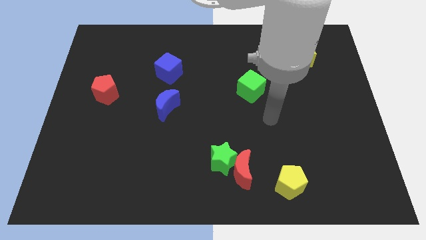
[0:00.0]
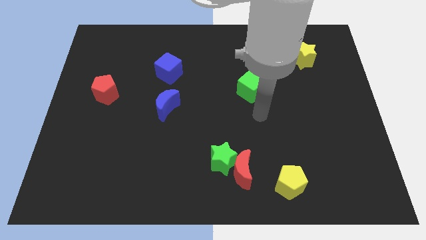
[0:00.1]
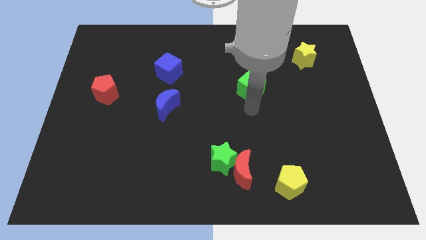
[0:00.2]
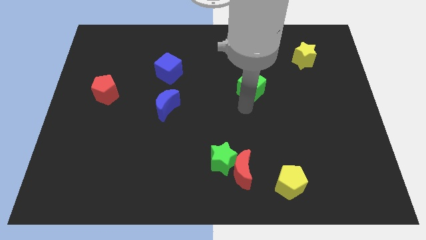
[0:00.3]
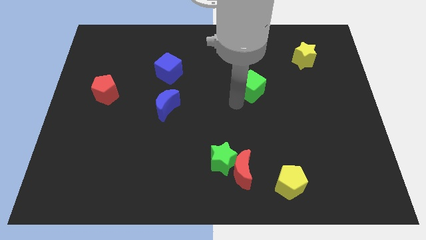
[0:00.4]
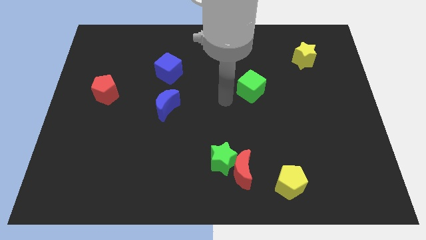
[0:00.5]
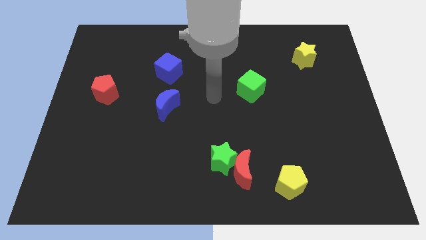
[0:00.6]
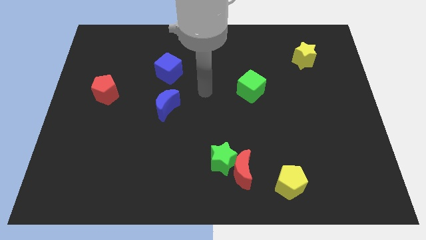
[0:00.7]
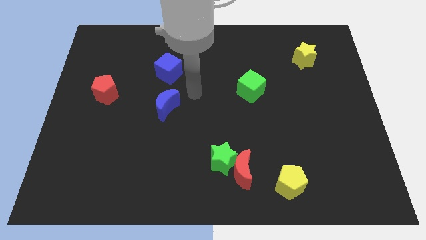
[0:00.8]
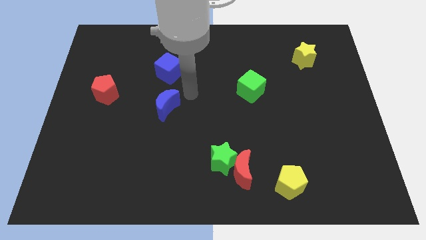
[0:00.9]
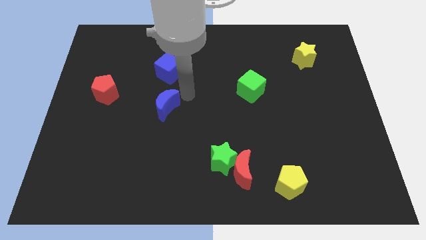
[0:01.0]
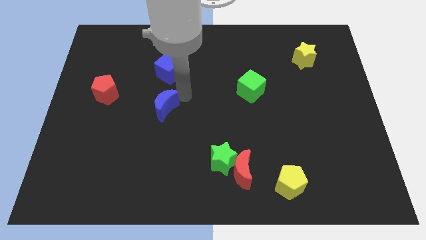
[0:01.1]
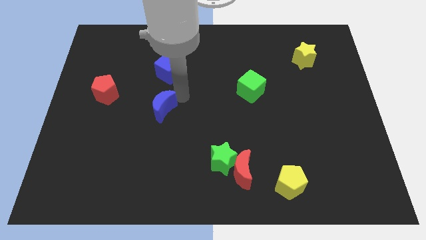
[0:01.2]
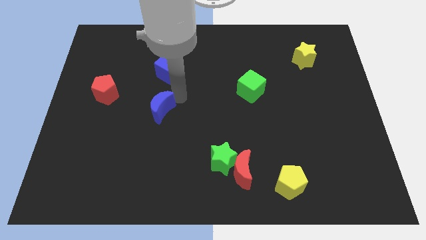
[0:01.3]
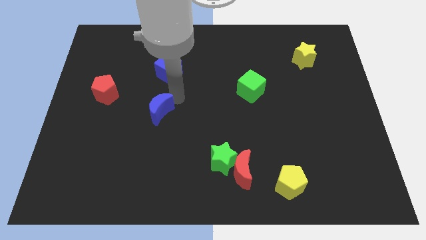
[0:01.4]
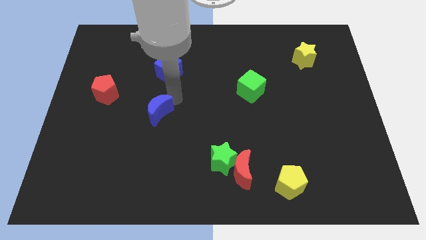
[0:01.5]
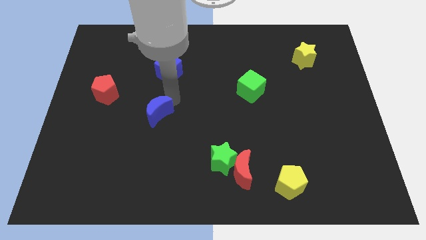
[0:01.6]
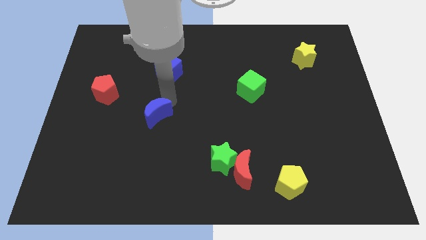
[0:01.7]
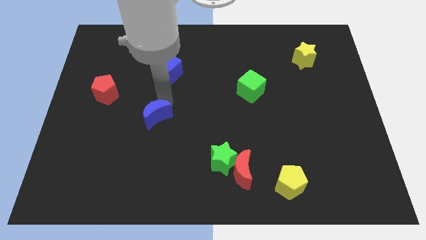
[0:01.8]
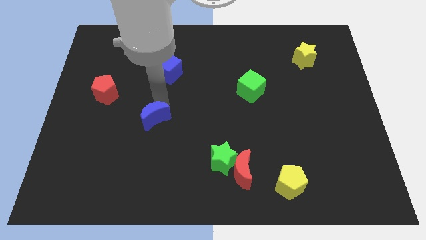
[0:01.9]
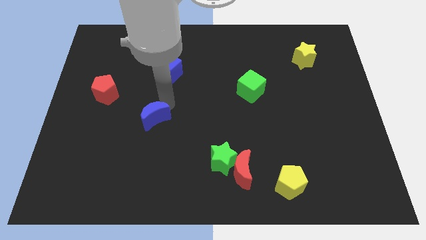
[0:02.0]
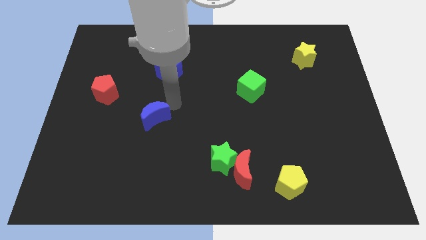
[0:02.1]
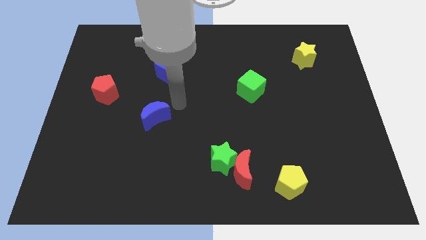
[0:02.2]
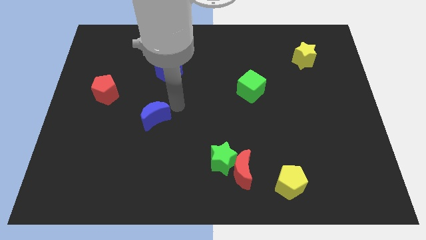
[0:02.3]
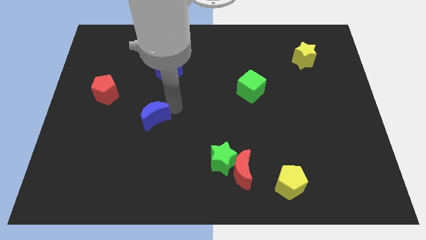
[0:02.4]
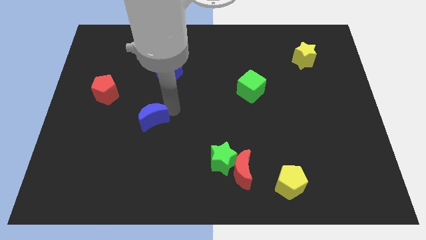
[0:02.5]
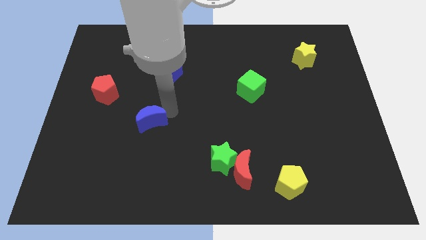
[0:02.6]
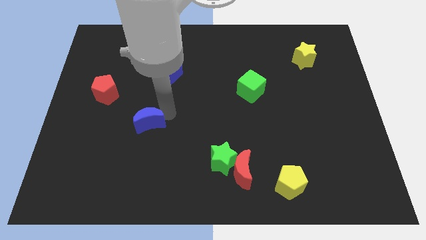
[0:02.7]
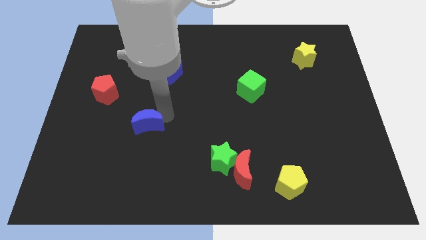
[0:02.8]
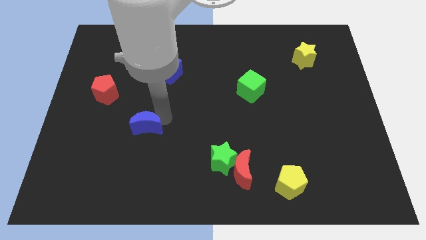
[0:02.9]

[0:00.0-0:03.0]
push the blue moon down and then left slightly

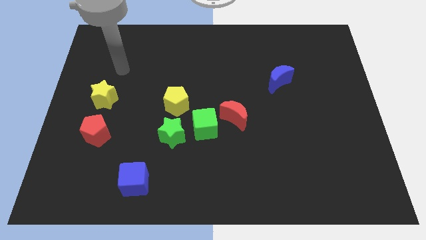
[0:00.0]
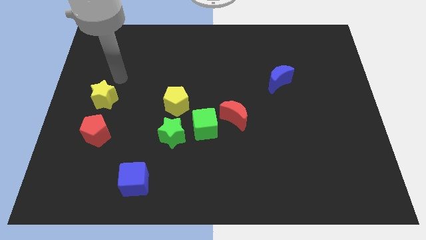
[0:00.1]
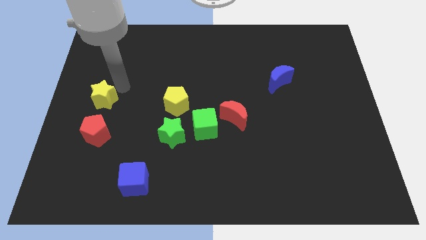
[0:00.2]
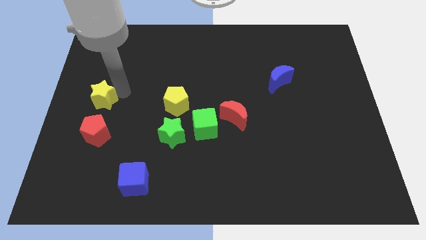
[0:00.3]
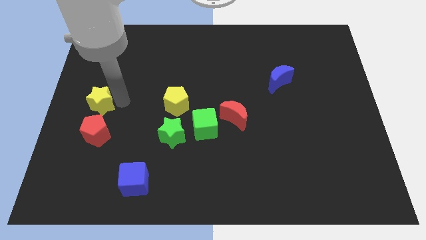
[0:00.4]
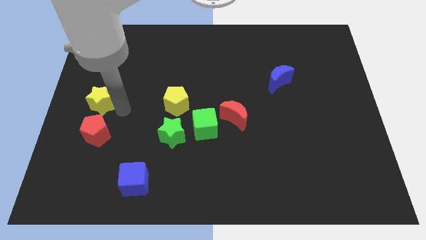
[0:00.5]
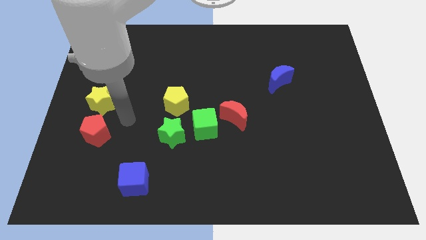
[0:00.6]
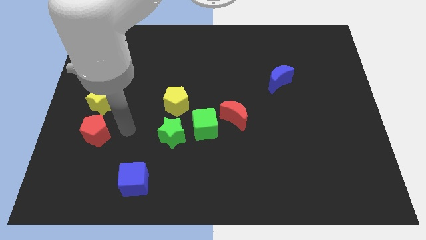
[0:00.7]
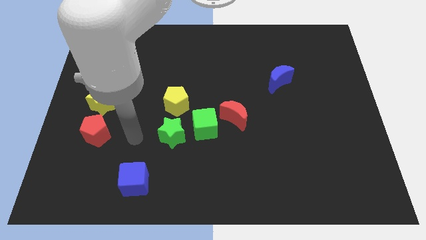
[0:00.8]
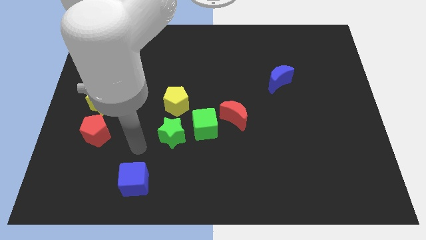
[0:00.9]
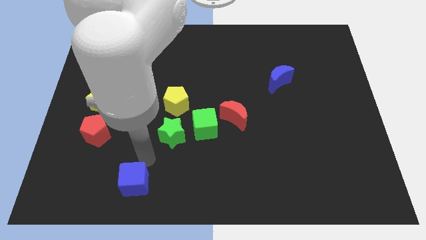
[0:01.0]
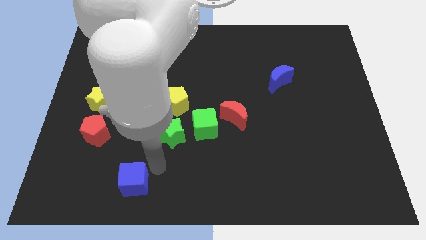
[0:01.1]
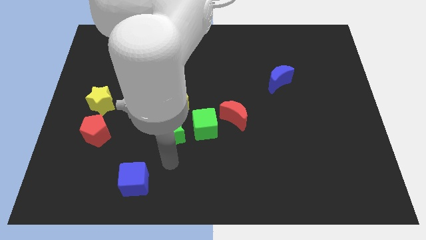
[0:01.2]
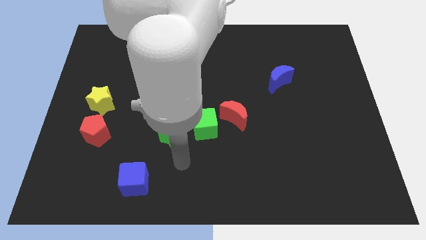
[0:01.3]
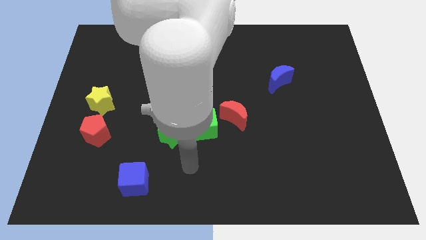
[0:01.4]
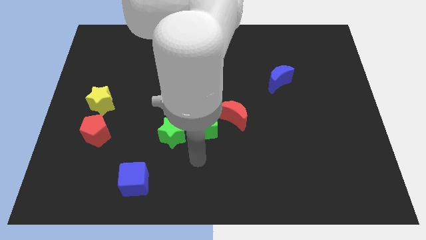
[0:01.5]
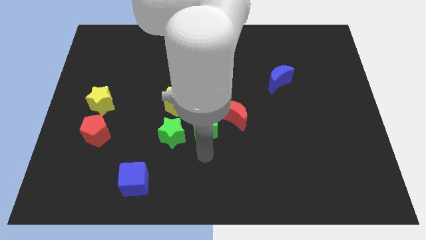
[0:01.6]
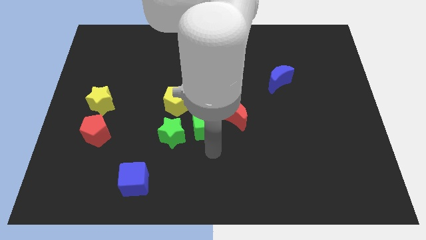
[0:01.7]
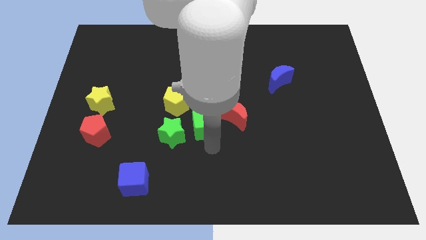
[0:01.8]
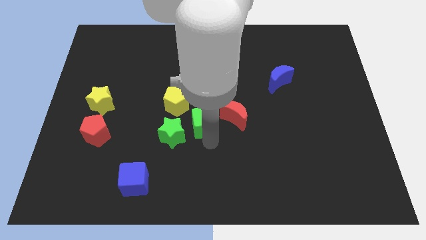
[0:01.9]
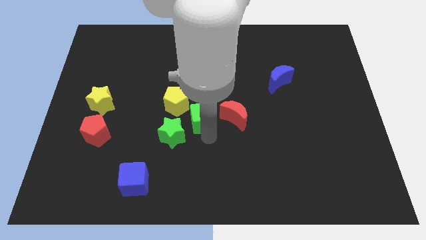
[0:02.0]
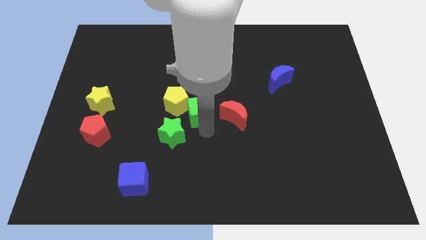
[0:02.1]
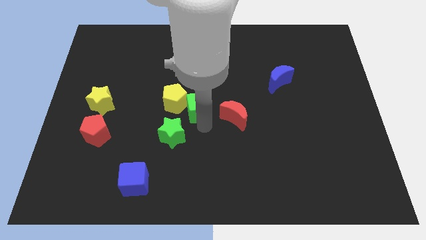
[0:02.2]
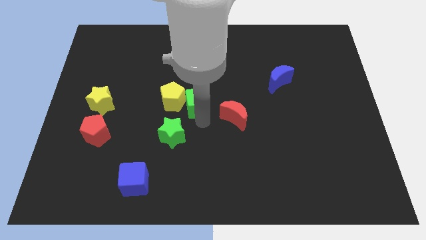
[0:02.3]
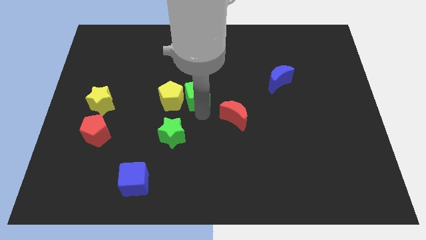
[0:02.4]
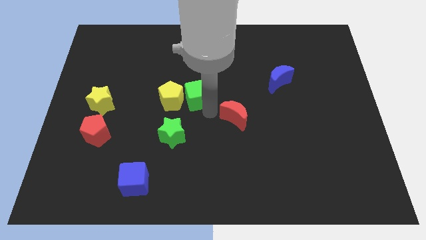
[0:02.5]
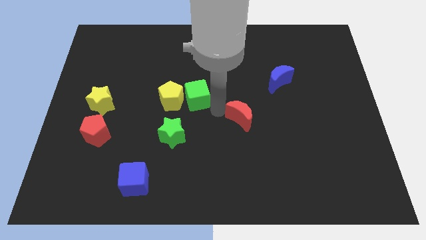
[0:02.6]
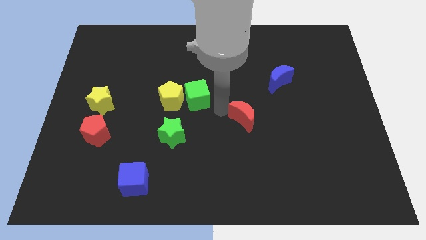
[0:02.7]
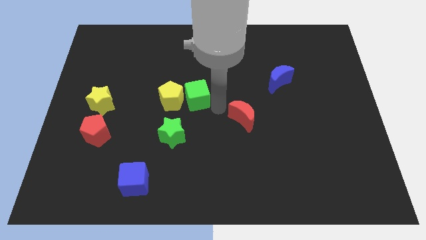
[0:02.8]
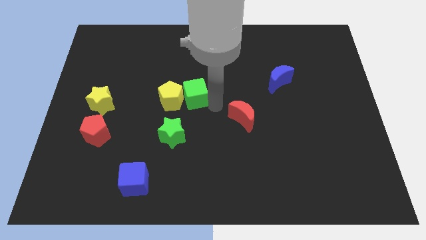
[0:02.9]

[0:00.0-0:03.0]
slightly move the green cube upwards and left

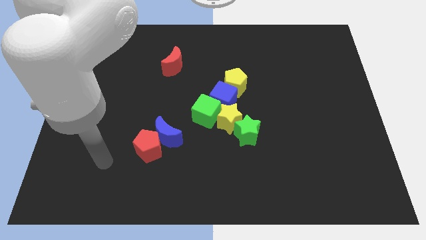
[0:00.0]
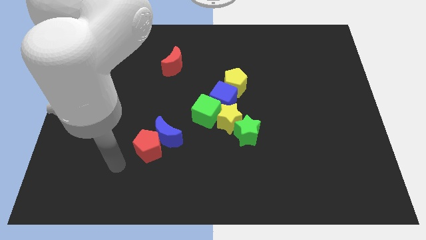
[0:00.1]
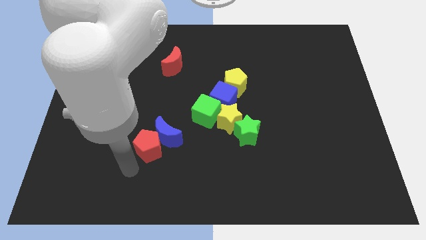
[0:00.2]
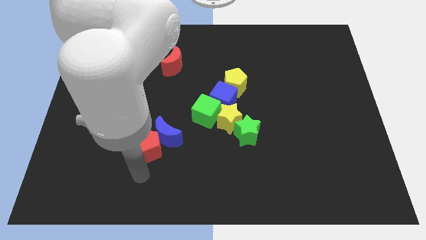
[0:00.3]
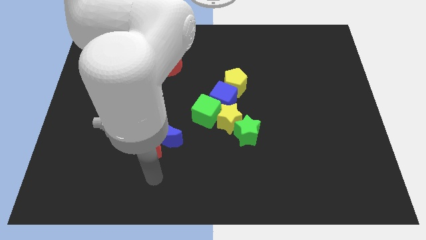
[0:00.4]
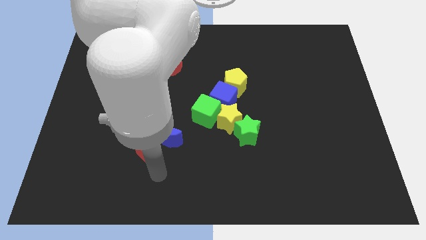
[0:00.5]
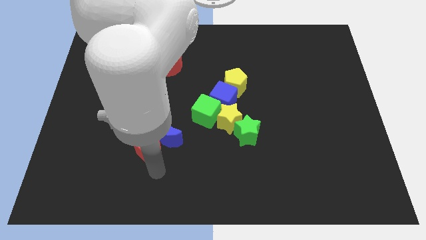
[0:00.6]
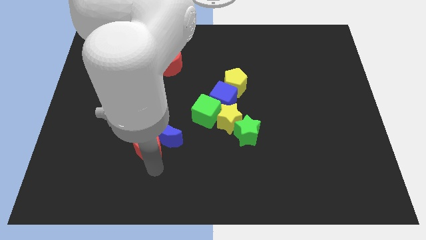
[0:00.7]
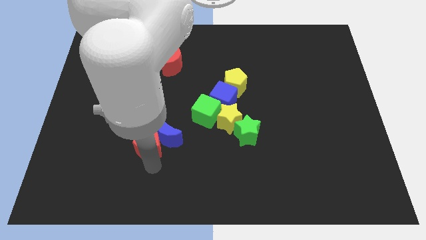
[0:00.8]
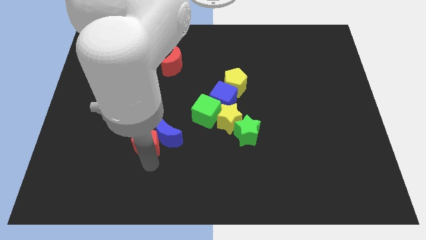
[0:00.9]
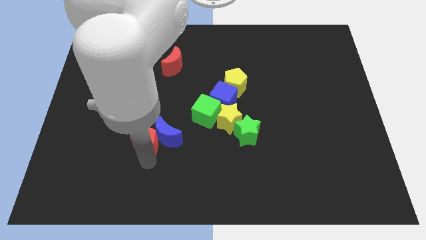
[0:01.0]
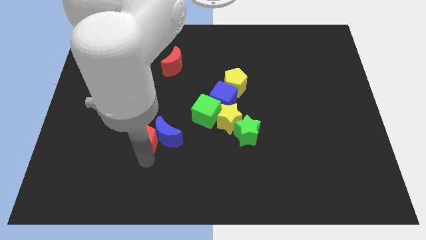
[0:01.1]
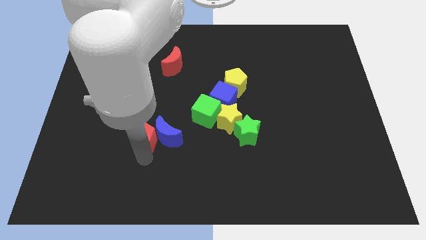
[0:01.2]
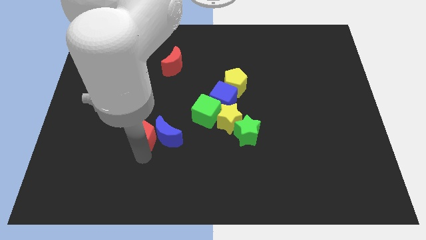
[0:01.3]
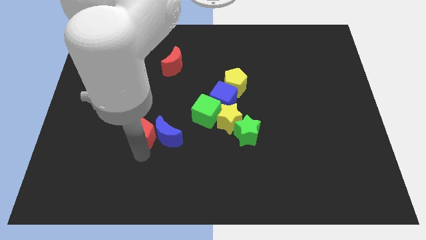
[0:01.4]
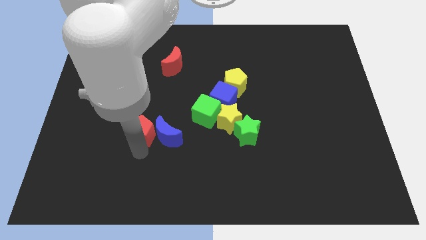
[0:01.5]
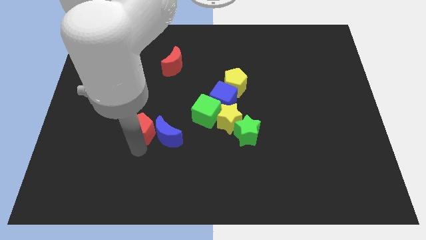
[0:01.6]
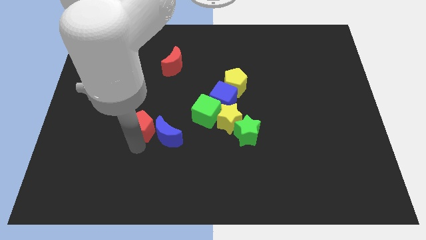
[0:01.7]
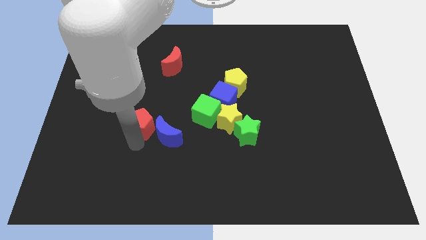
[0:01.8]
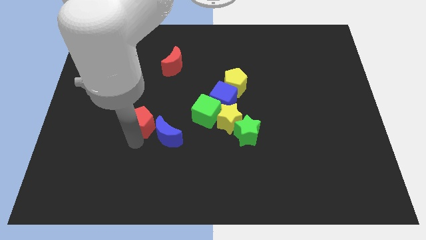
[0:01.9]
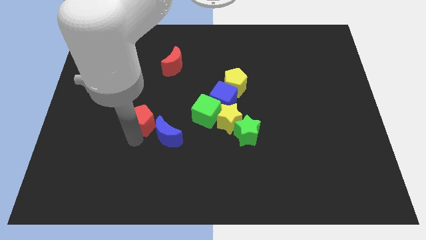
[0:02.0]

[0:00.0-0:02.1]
slightly push the red pentagon upwards
